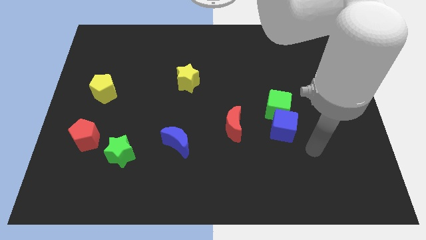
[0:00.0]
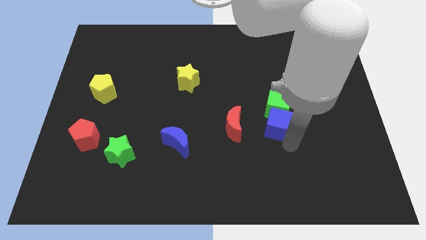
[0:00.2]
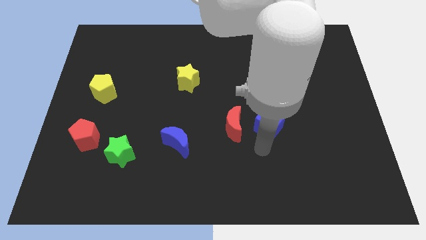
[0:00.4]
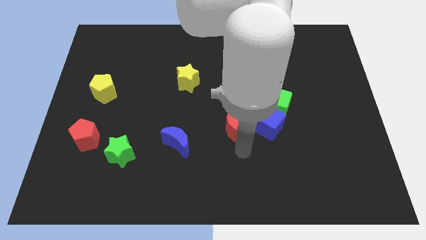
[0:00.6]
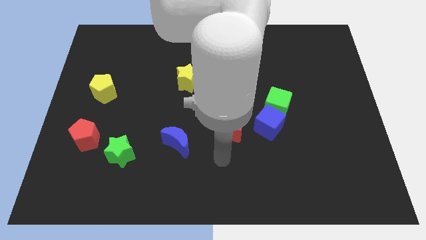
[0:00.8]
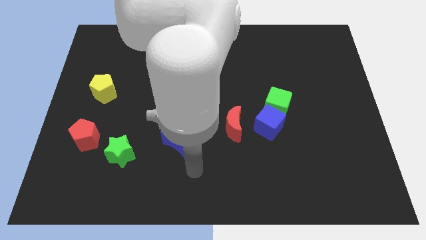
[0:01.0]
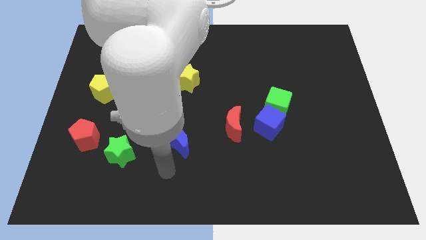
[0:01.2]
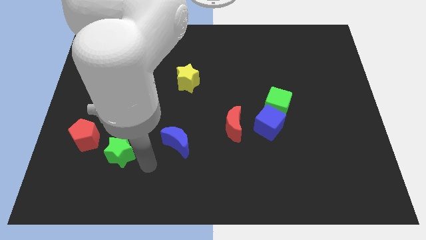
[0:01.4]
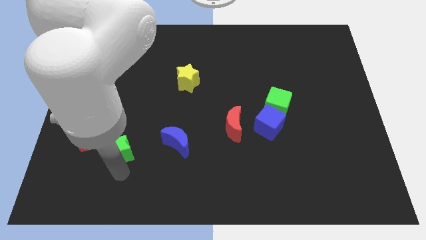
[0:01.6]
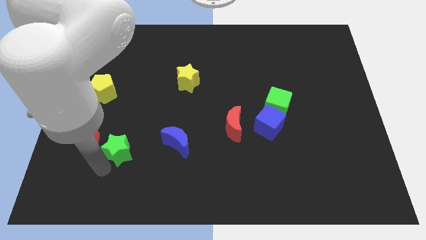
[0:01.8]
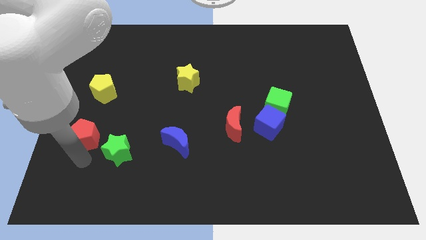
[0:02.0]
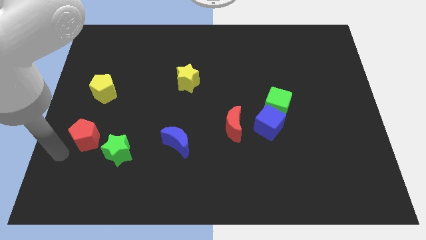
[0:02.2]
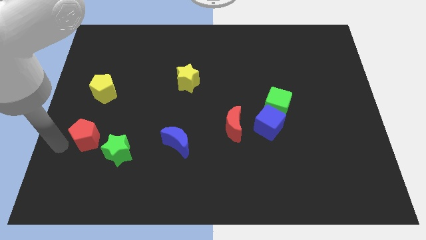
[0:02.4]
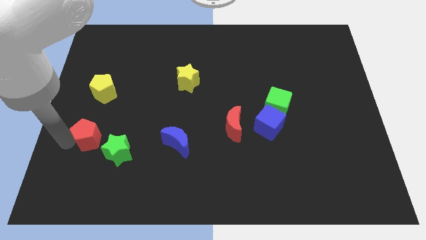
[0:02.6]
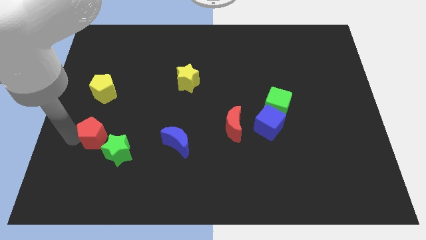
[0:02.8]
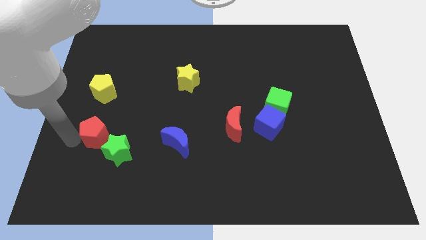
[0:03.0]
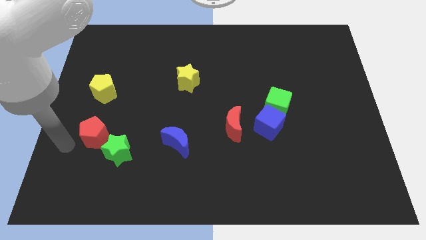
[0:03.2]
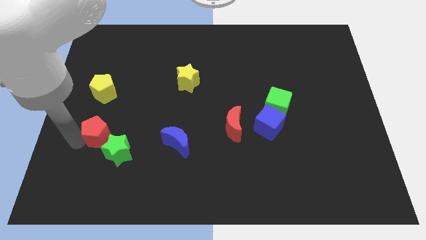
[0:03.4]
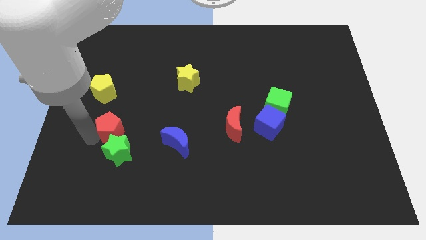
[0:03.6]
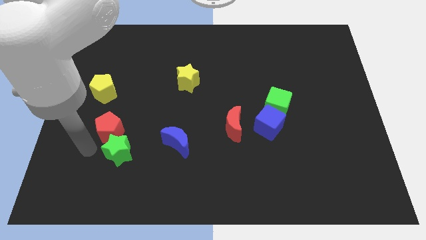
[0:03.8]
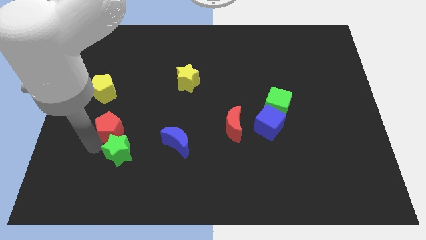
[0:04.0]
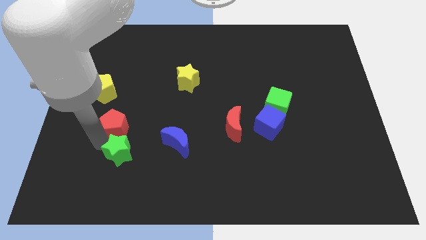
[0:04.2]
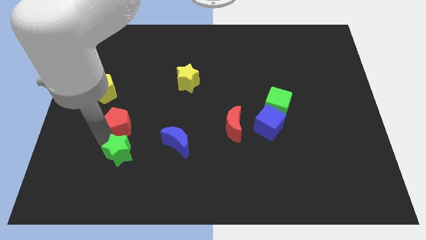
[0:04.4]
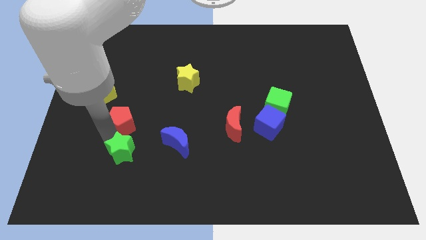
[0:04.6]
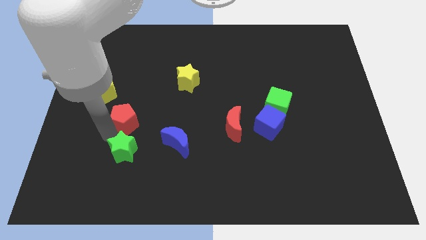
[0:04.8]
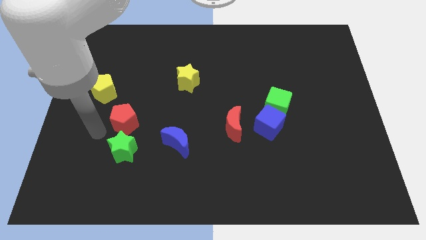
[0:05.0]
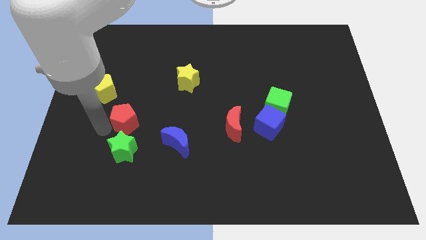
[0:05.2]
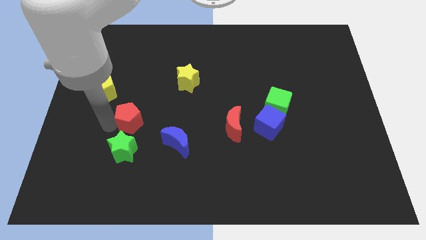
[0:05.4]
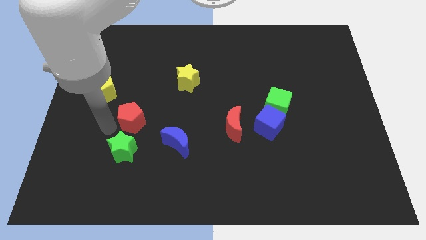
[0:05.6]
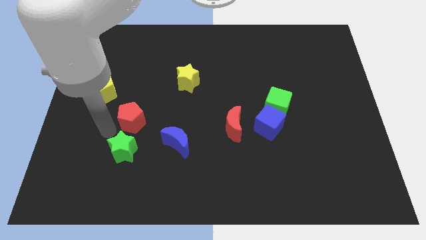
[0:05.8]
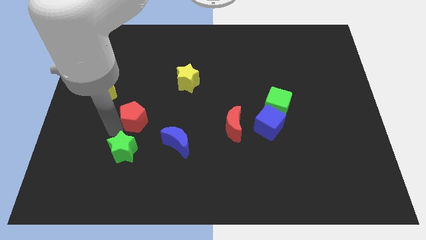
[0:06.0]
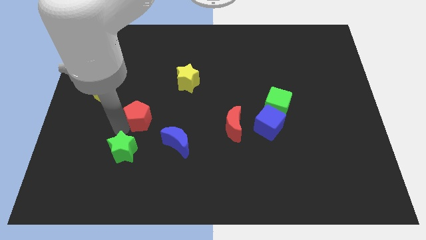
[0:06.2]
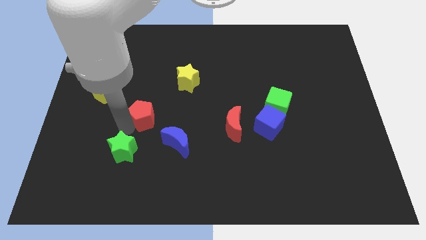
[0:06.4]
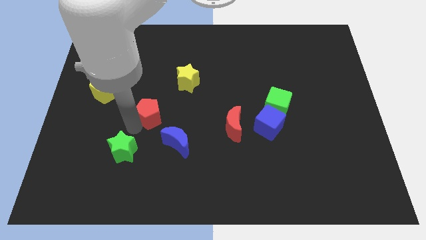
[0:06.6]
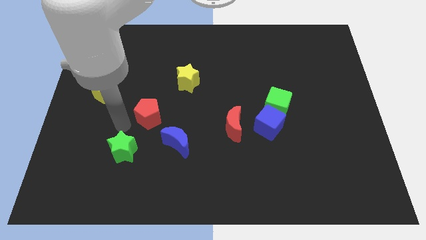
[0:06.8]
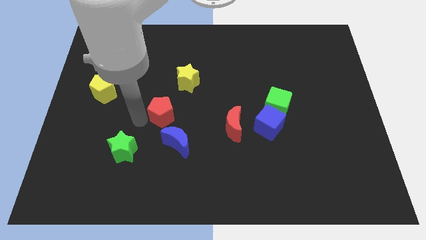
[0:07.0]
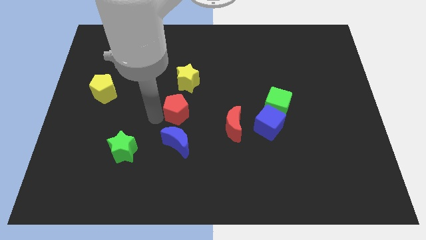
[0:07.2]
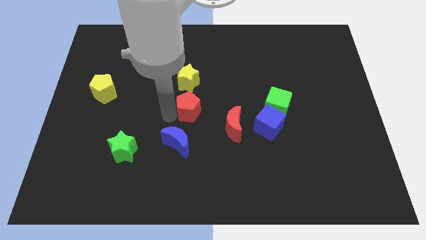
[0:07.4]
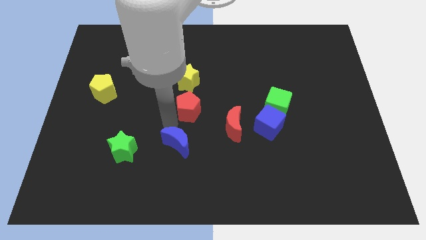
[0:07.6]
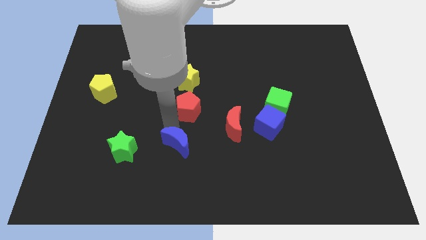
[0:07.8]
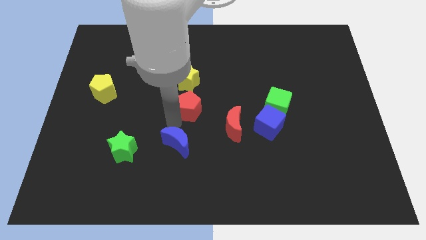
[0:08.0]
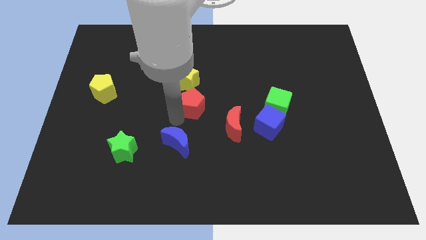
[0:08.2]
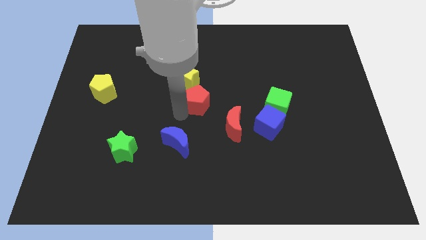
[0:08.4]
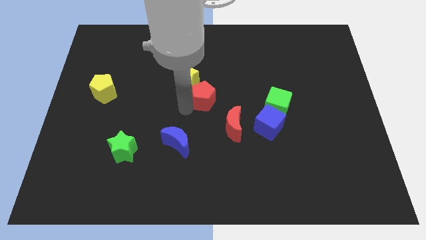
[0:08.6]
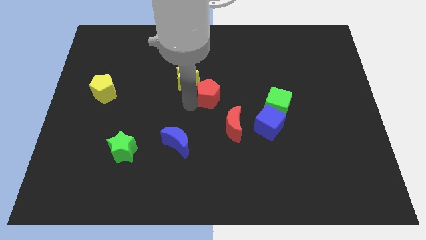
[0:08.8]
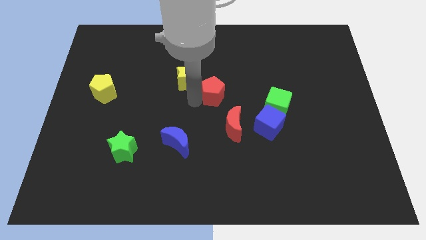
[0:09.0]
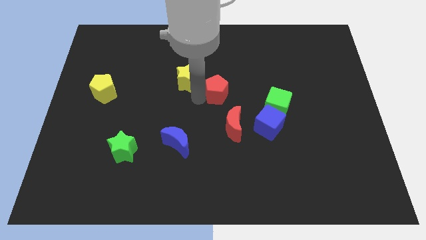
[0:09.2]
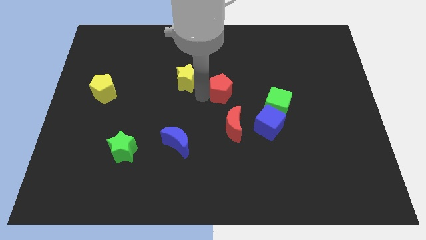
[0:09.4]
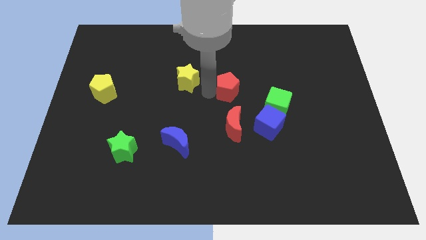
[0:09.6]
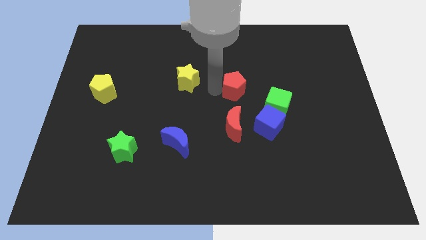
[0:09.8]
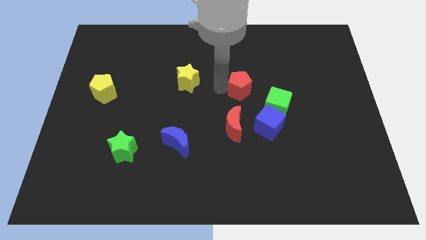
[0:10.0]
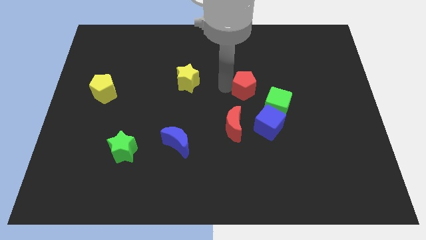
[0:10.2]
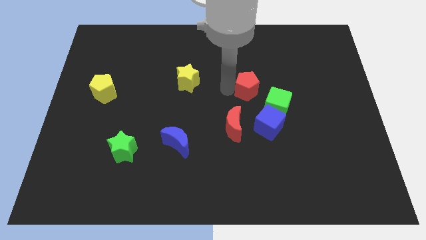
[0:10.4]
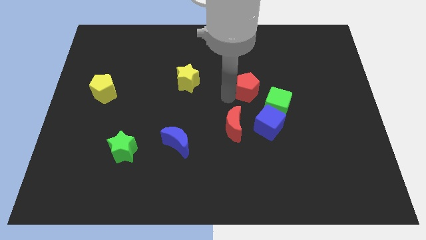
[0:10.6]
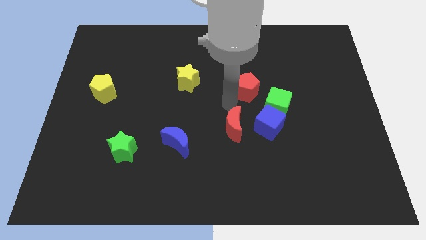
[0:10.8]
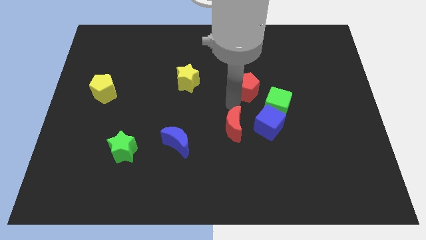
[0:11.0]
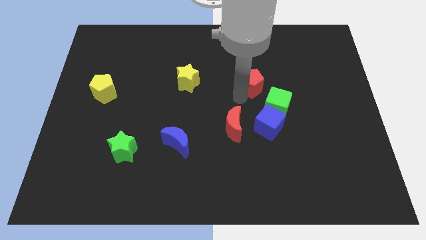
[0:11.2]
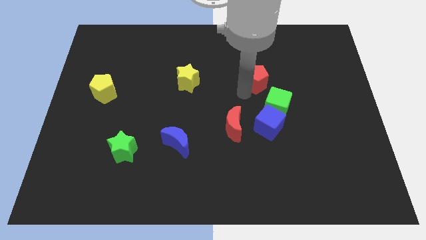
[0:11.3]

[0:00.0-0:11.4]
push the red pentagon to the top side of the green cube

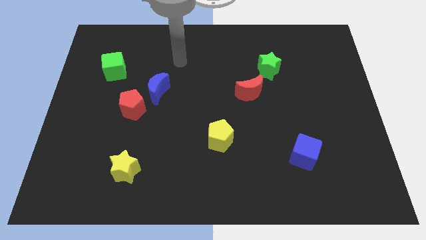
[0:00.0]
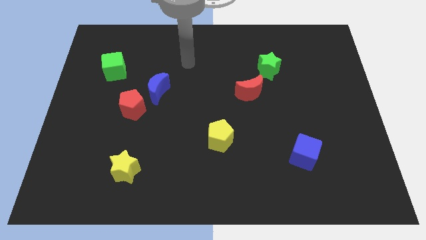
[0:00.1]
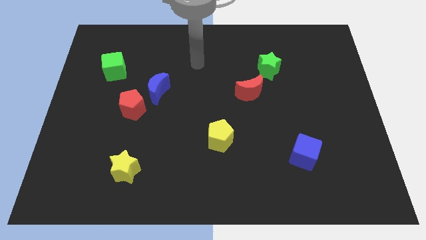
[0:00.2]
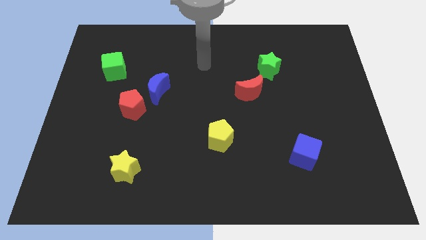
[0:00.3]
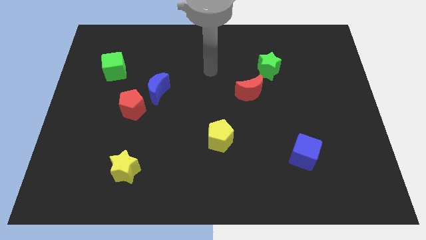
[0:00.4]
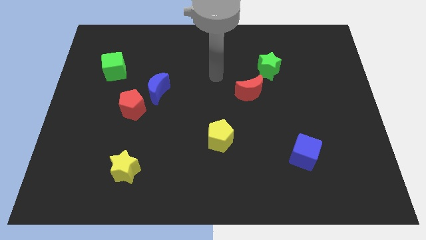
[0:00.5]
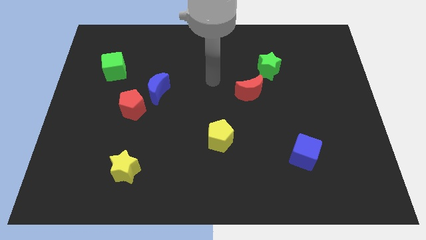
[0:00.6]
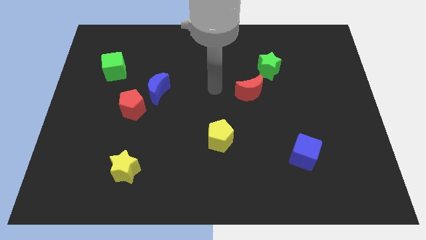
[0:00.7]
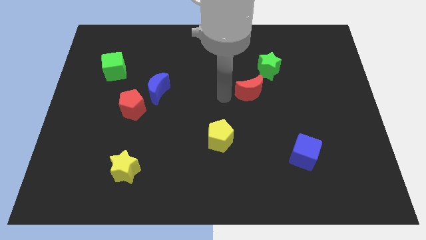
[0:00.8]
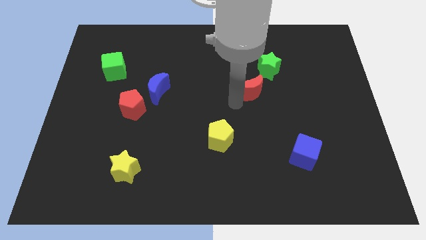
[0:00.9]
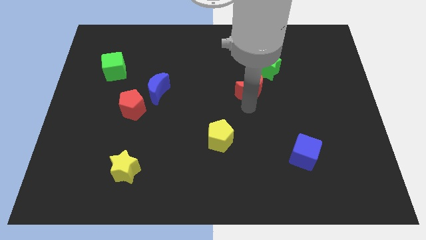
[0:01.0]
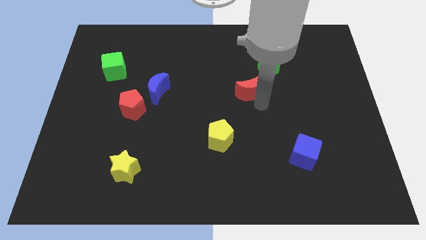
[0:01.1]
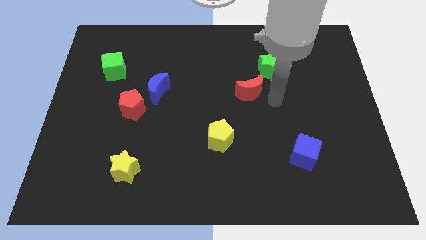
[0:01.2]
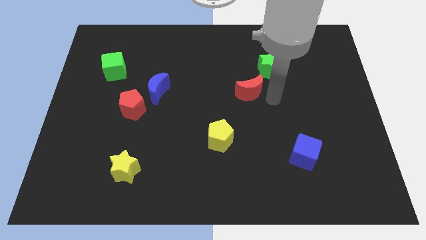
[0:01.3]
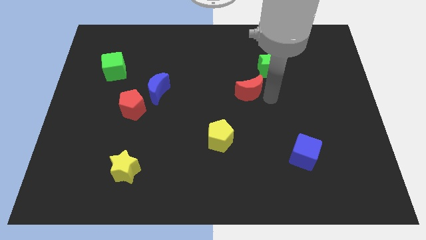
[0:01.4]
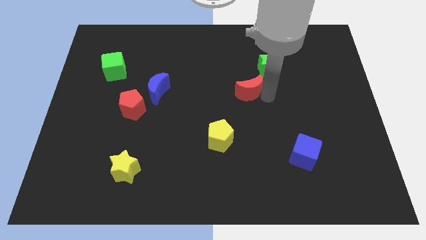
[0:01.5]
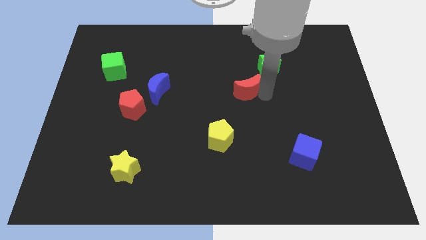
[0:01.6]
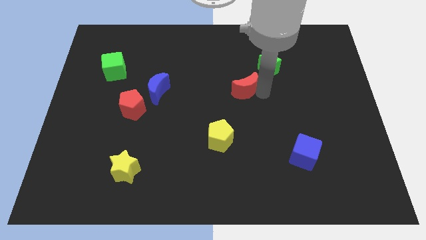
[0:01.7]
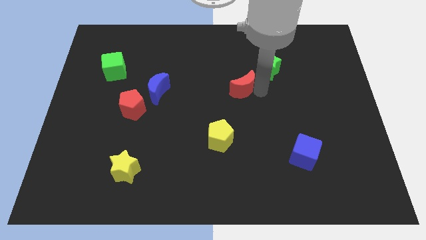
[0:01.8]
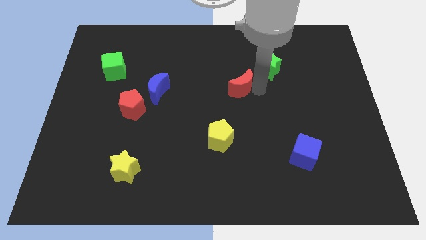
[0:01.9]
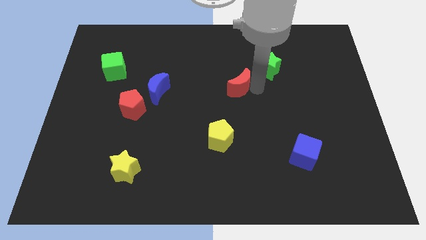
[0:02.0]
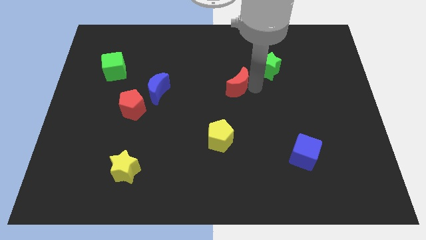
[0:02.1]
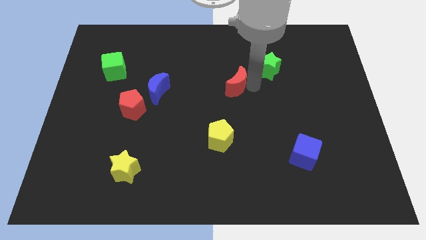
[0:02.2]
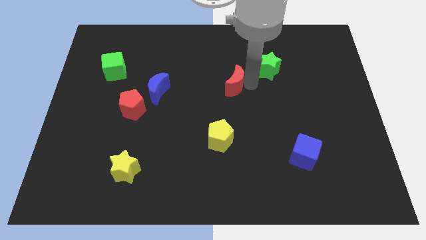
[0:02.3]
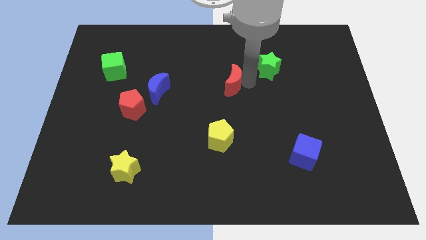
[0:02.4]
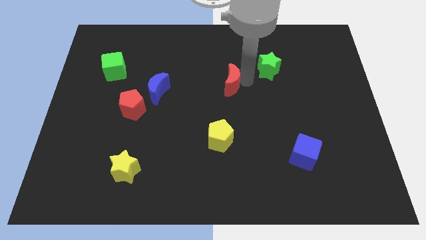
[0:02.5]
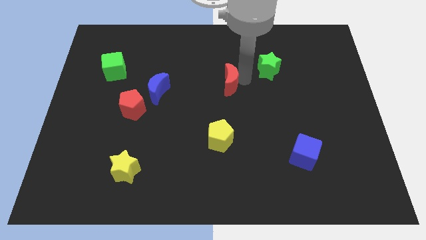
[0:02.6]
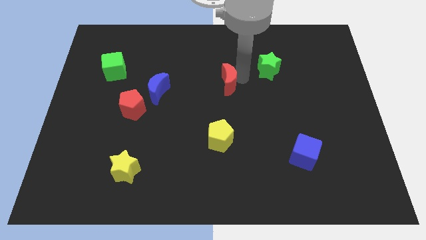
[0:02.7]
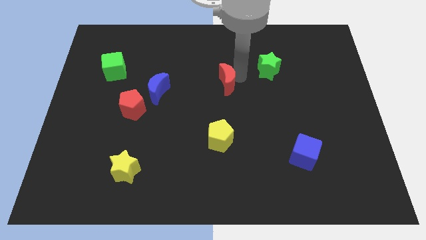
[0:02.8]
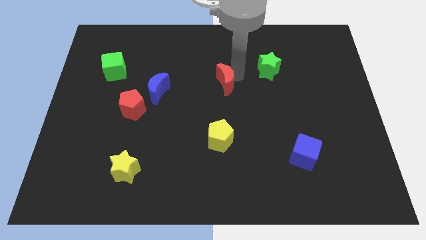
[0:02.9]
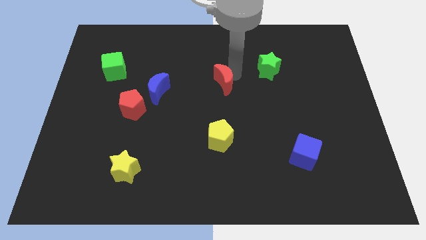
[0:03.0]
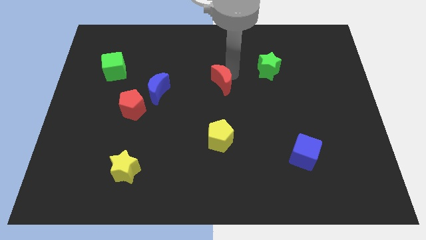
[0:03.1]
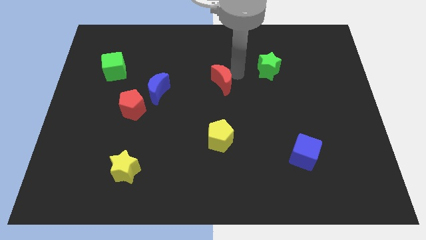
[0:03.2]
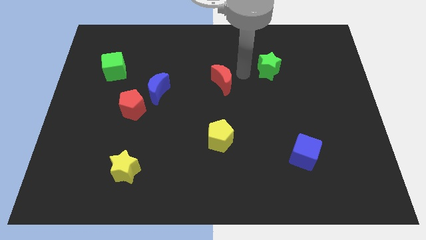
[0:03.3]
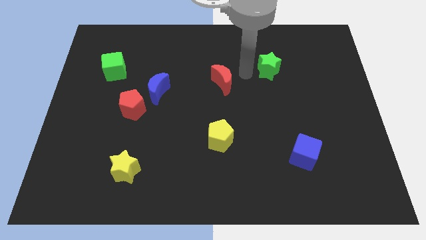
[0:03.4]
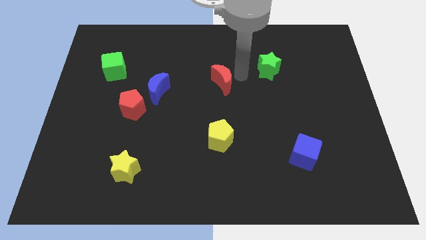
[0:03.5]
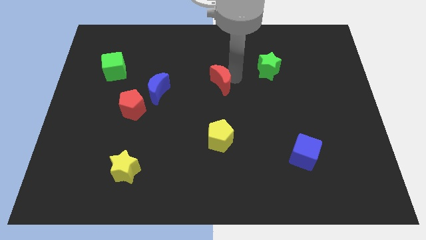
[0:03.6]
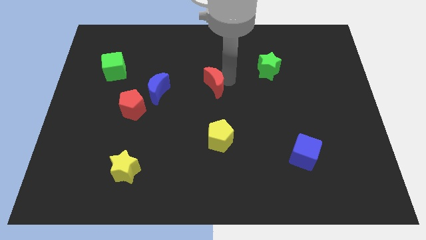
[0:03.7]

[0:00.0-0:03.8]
put the red moon to the right of the blue moon
